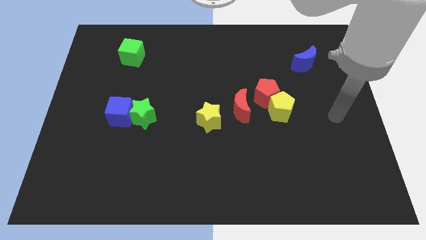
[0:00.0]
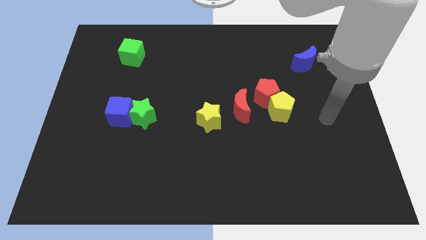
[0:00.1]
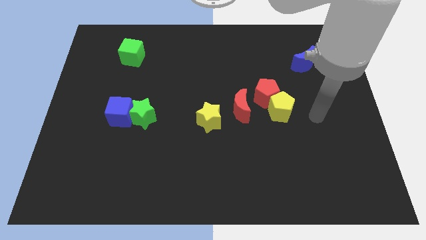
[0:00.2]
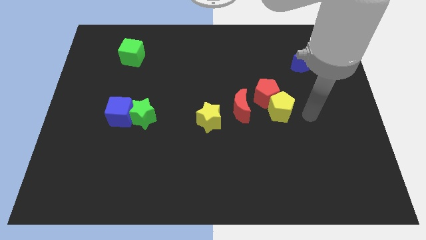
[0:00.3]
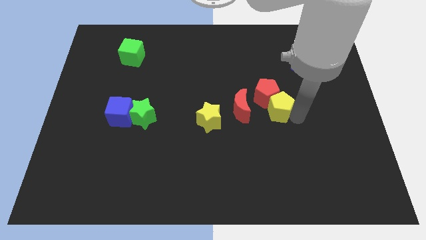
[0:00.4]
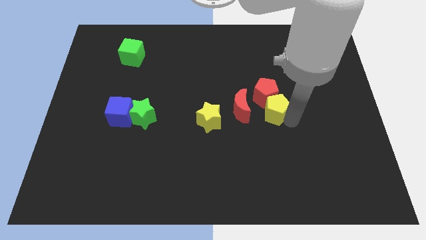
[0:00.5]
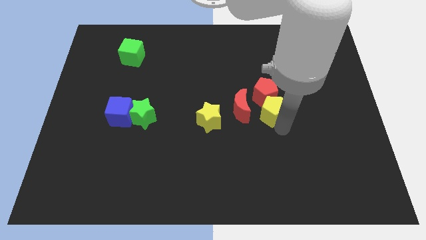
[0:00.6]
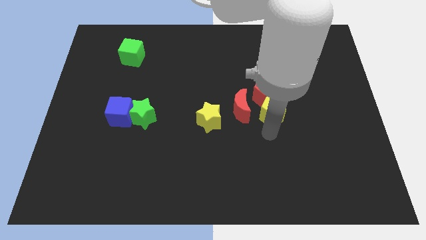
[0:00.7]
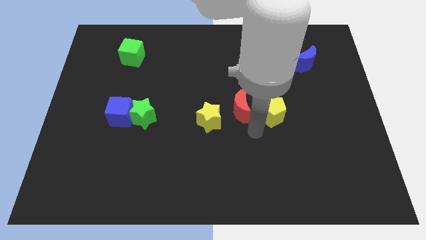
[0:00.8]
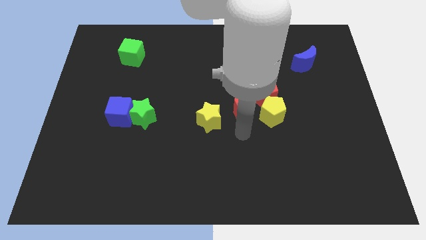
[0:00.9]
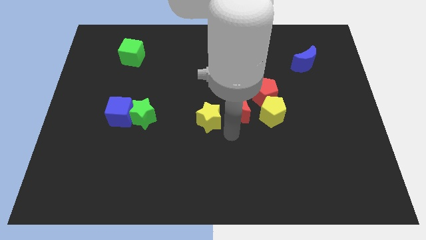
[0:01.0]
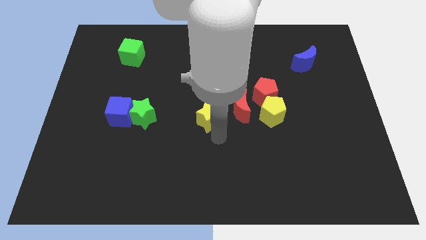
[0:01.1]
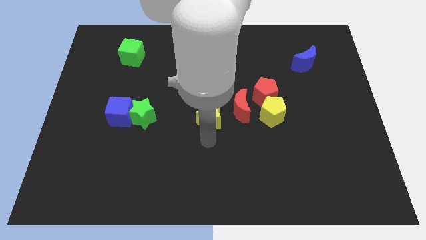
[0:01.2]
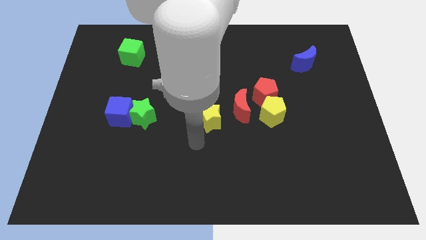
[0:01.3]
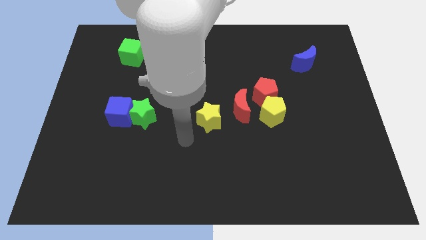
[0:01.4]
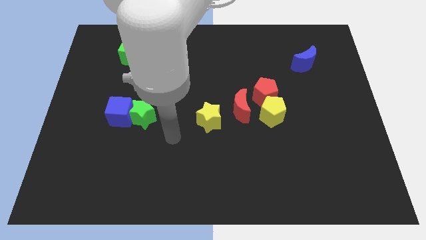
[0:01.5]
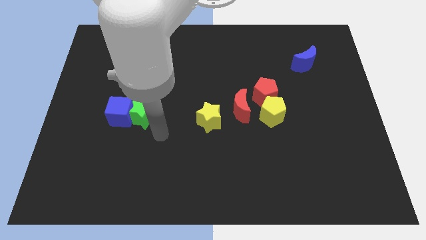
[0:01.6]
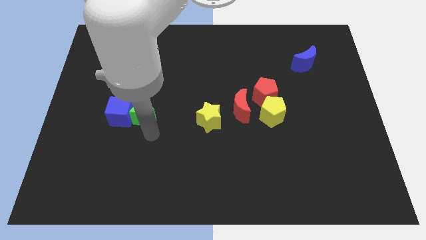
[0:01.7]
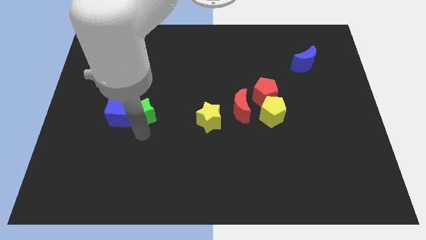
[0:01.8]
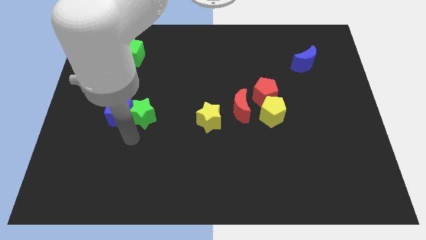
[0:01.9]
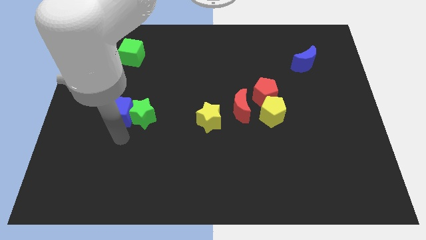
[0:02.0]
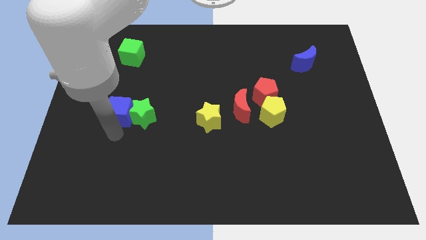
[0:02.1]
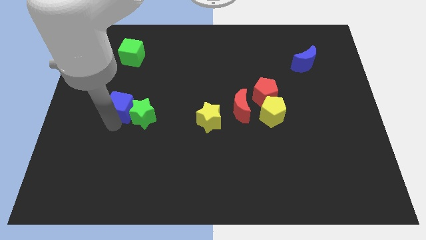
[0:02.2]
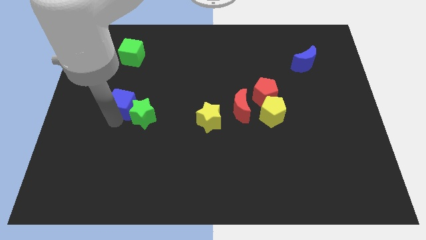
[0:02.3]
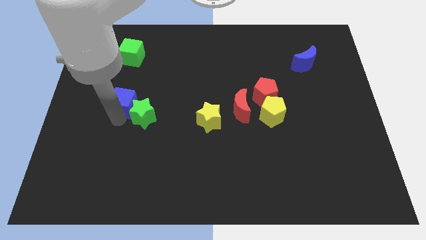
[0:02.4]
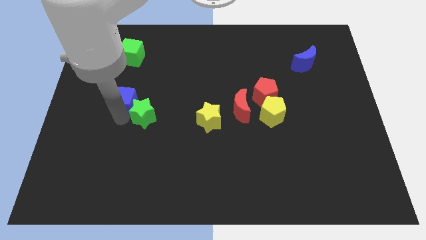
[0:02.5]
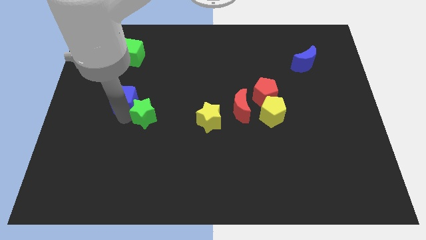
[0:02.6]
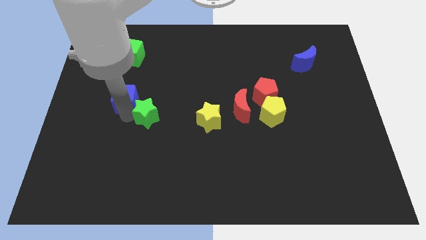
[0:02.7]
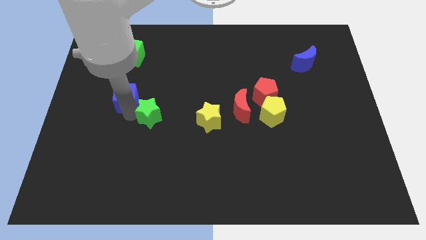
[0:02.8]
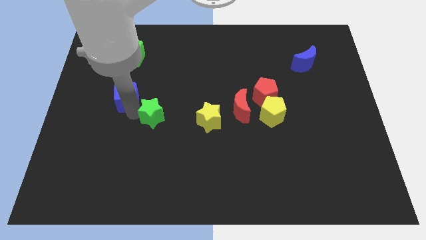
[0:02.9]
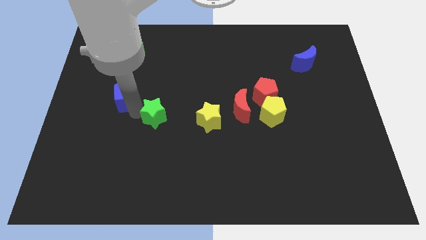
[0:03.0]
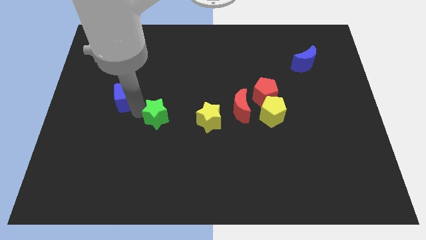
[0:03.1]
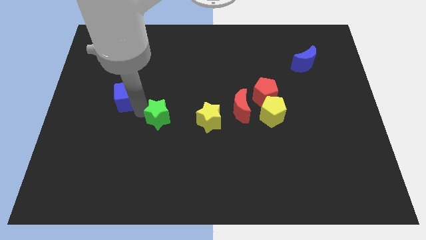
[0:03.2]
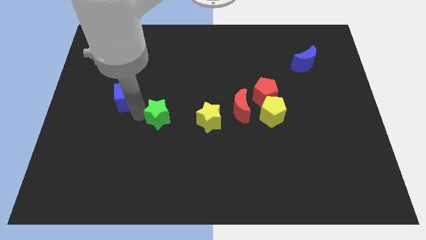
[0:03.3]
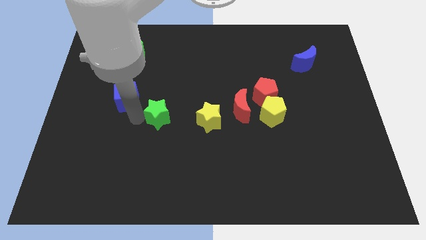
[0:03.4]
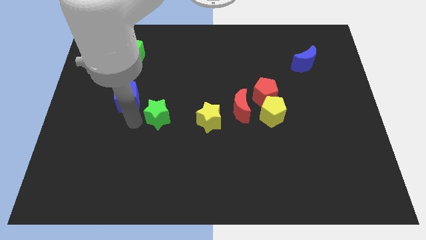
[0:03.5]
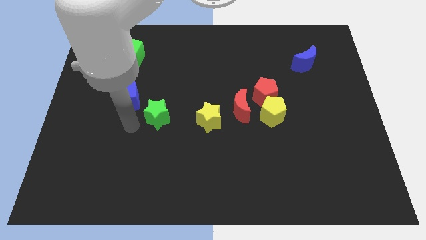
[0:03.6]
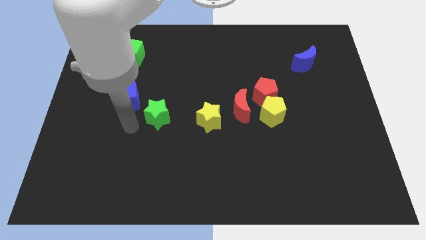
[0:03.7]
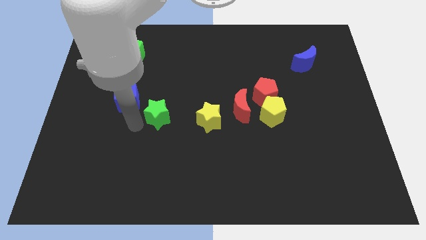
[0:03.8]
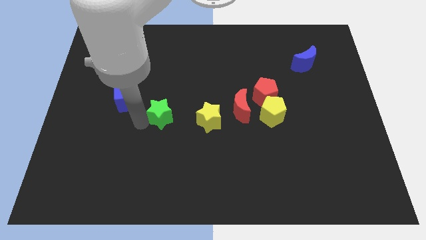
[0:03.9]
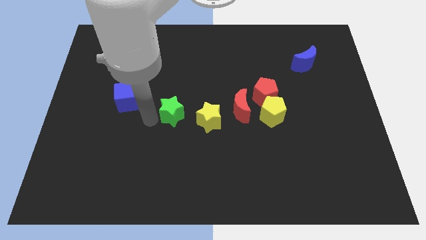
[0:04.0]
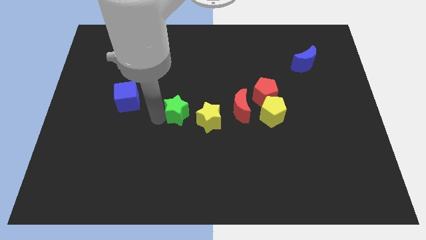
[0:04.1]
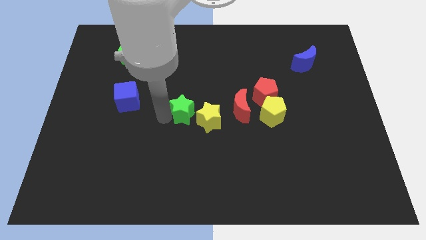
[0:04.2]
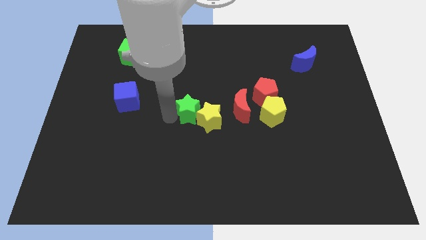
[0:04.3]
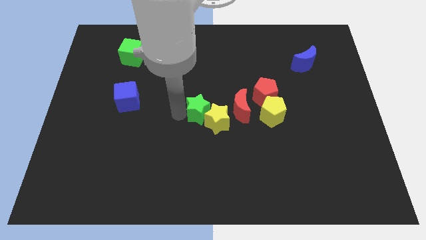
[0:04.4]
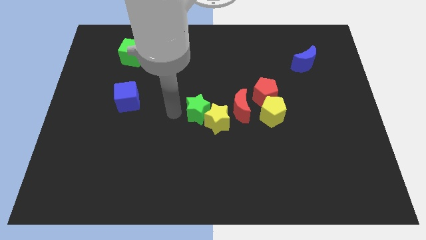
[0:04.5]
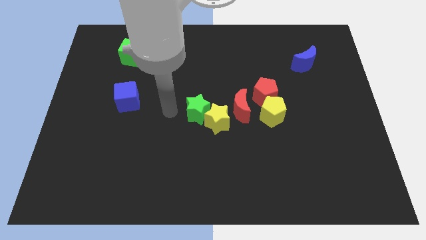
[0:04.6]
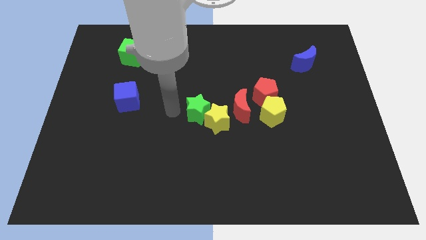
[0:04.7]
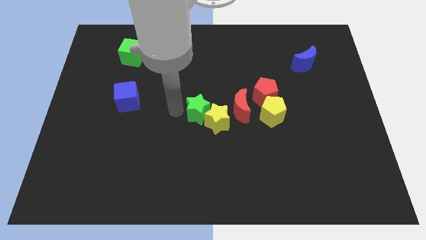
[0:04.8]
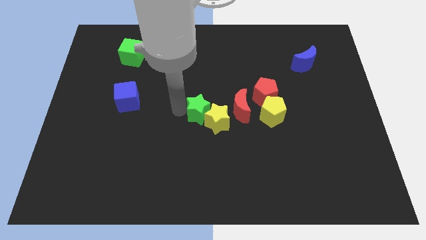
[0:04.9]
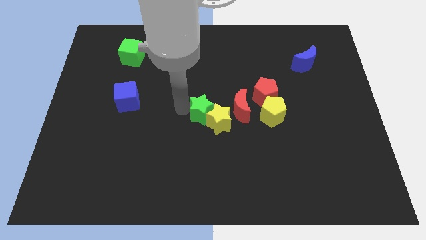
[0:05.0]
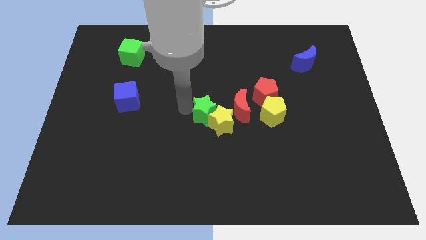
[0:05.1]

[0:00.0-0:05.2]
push the green star to the left side of the yellow pentagon
